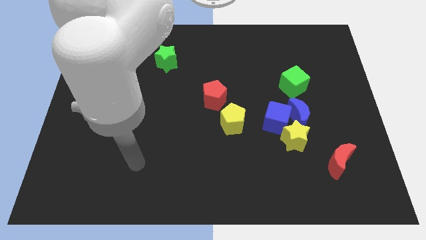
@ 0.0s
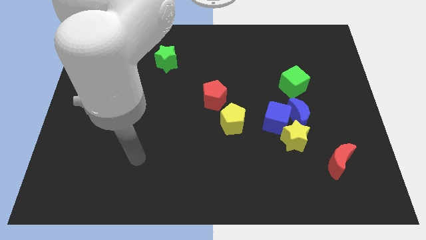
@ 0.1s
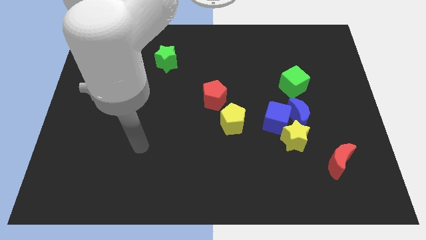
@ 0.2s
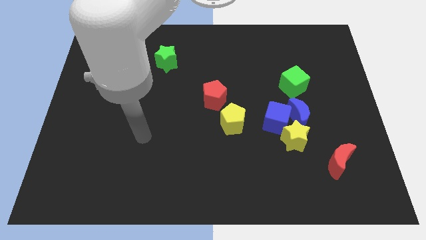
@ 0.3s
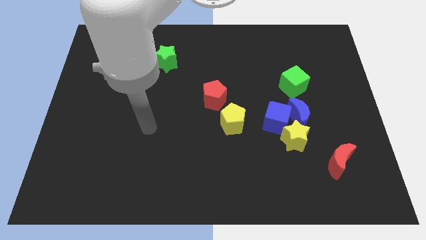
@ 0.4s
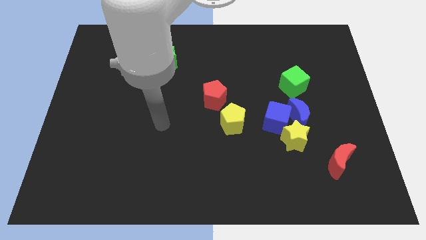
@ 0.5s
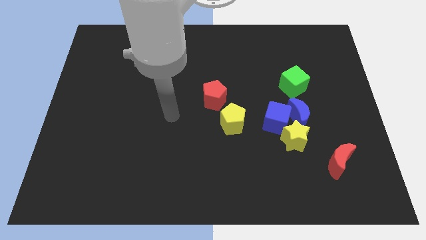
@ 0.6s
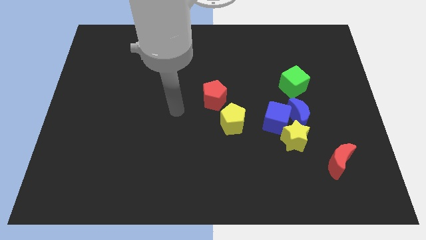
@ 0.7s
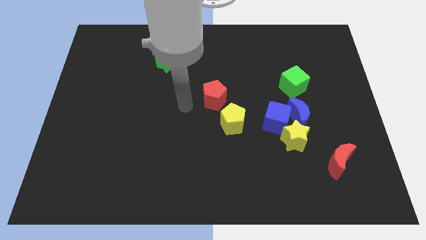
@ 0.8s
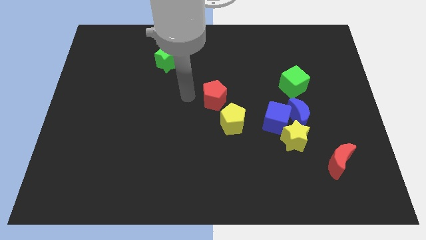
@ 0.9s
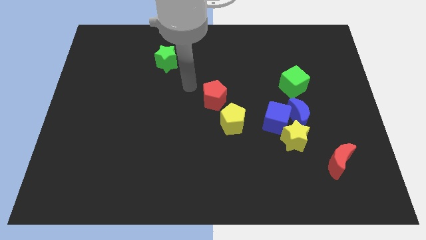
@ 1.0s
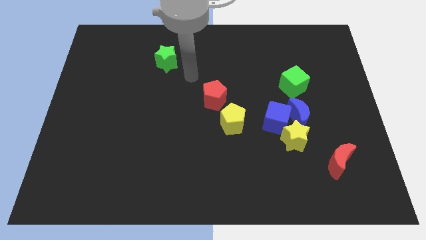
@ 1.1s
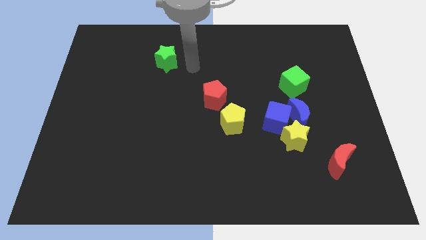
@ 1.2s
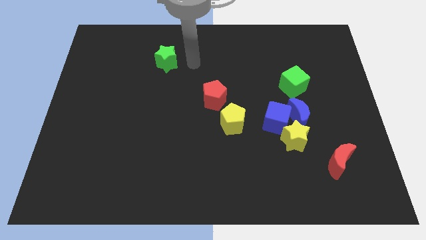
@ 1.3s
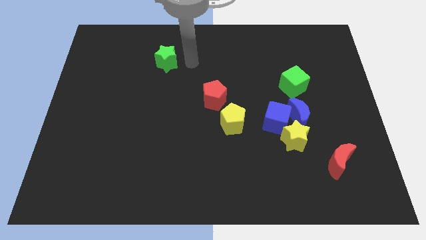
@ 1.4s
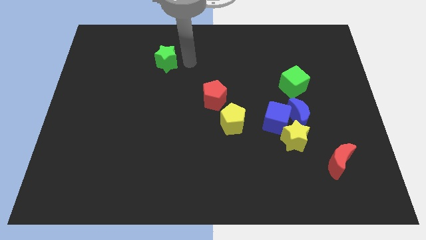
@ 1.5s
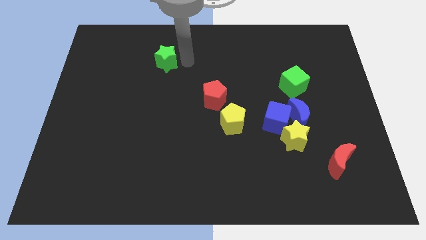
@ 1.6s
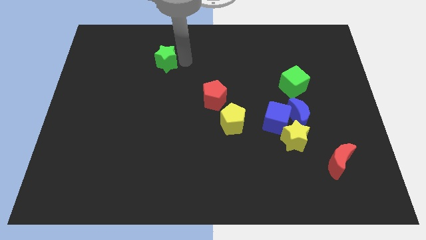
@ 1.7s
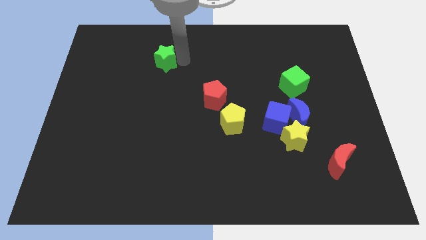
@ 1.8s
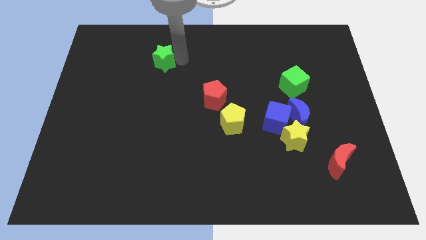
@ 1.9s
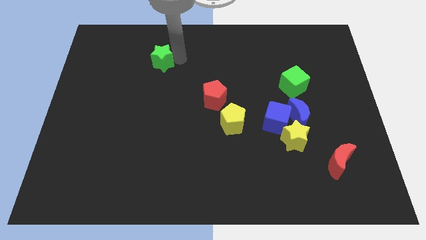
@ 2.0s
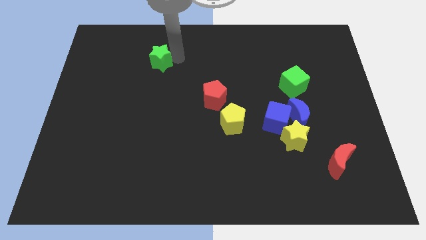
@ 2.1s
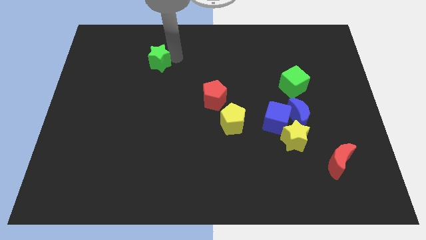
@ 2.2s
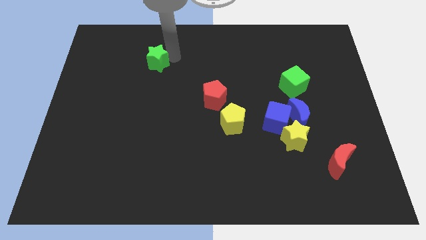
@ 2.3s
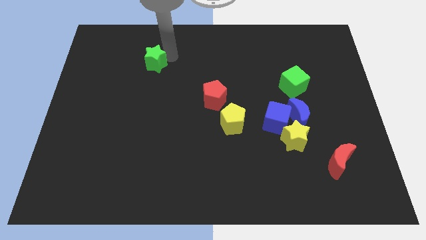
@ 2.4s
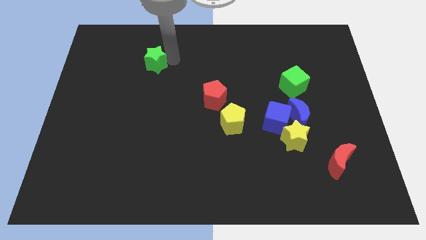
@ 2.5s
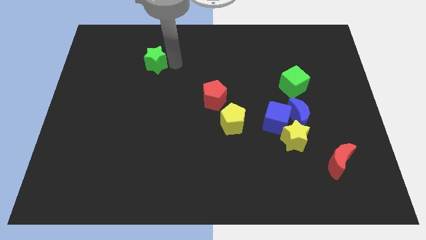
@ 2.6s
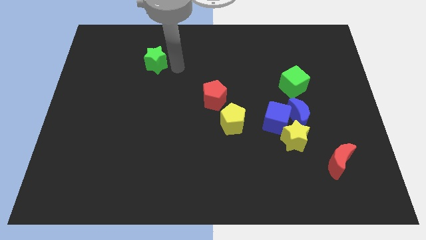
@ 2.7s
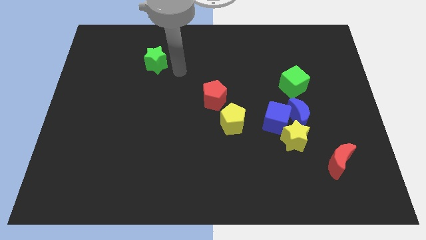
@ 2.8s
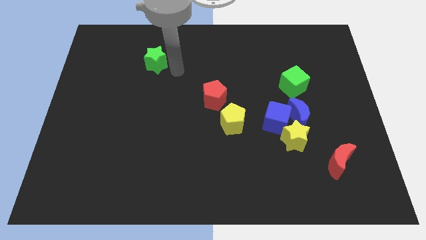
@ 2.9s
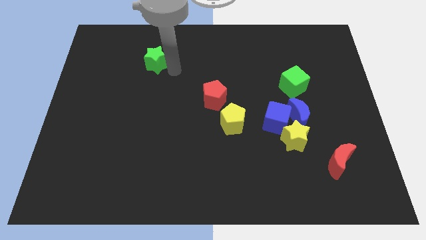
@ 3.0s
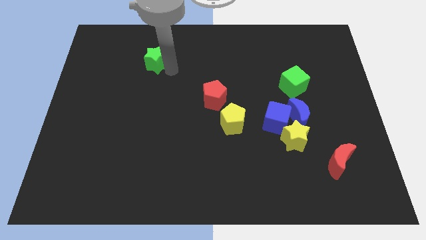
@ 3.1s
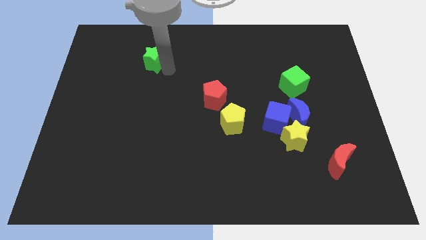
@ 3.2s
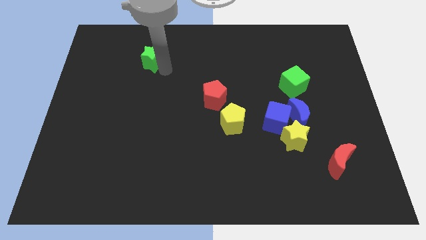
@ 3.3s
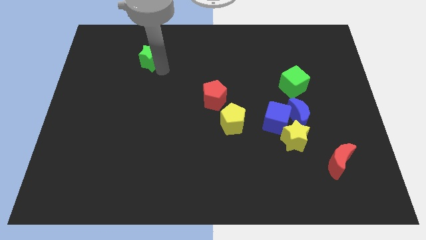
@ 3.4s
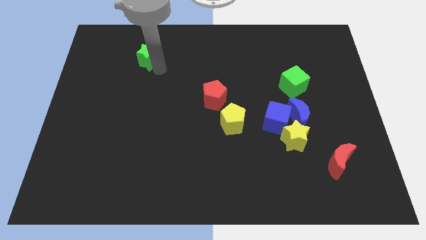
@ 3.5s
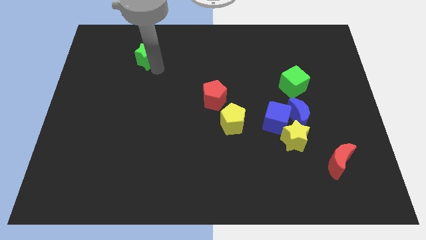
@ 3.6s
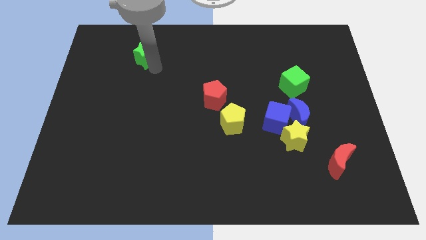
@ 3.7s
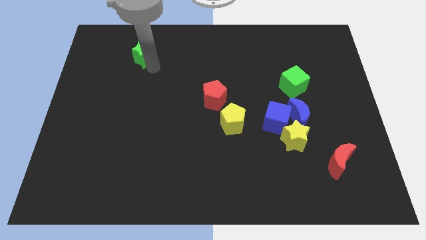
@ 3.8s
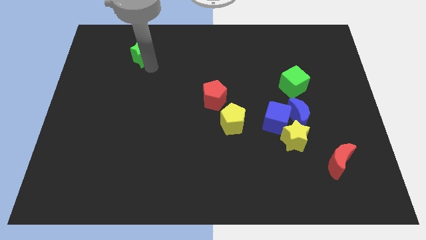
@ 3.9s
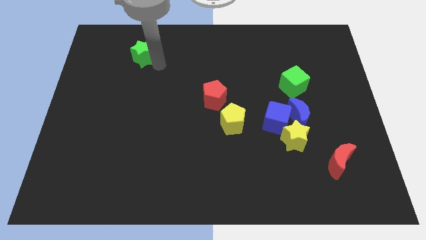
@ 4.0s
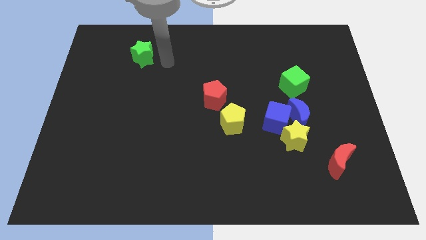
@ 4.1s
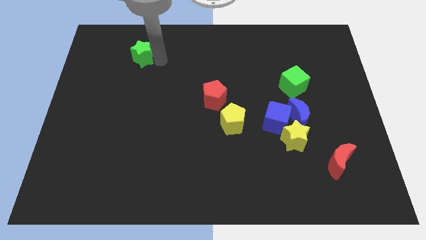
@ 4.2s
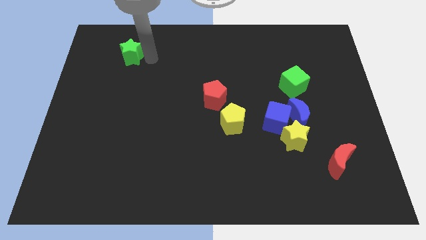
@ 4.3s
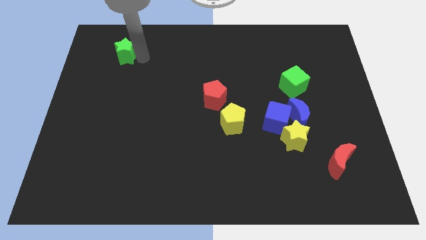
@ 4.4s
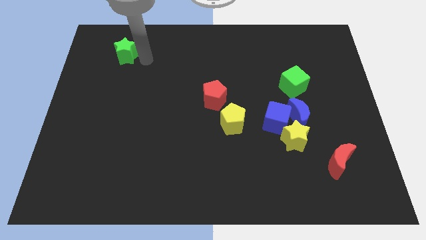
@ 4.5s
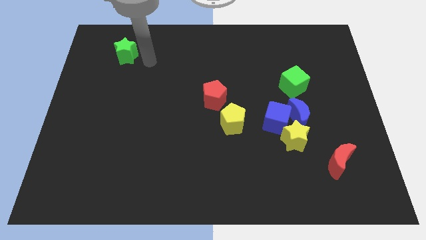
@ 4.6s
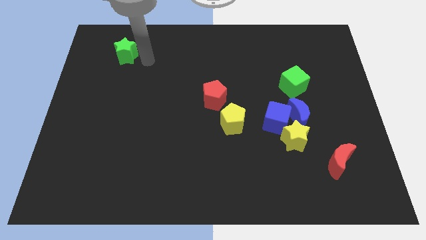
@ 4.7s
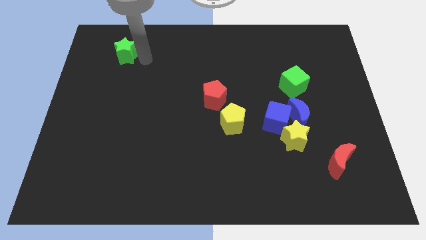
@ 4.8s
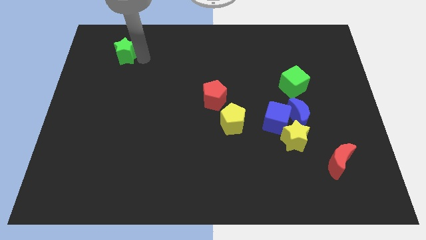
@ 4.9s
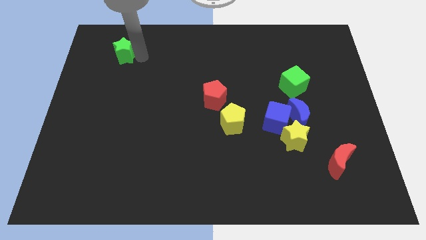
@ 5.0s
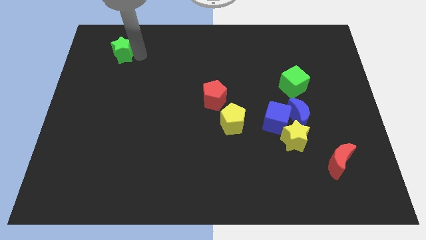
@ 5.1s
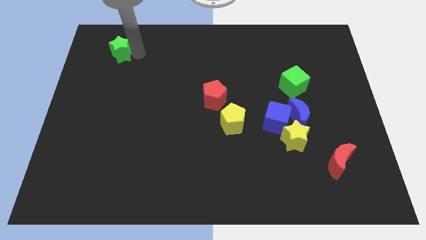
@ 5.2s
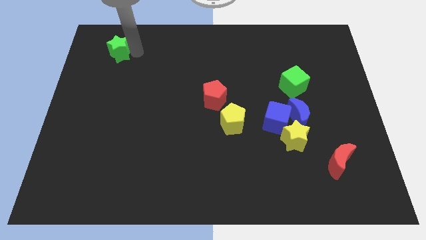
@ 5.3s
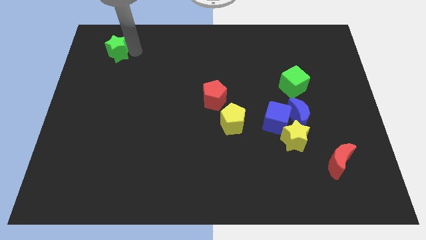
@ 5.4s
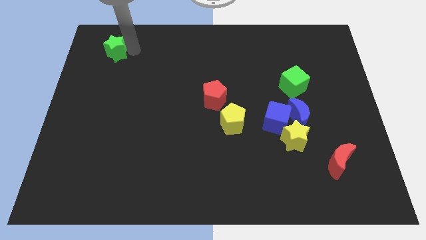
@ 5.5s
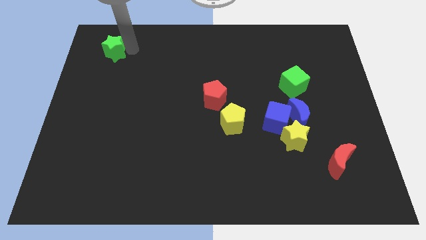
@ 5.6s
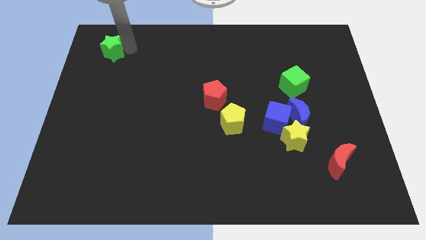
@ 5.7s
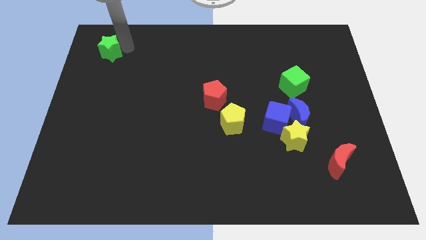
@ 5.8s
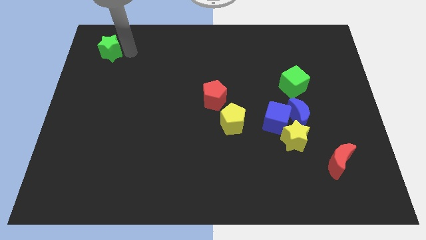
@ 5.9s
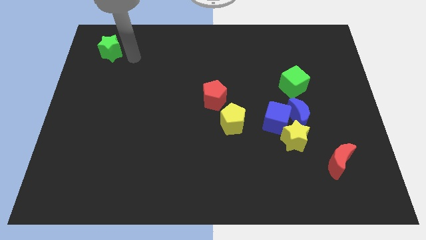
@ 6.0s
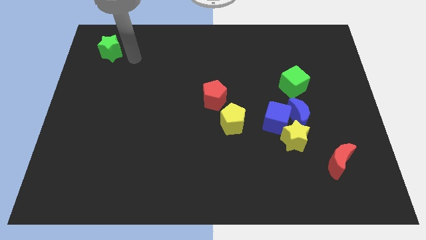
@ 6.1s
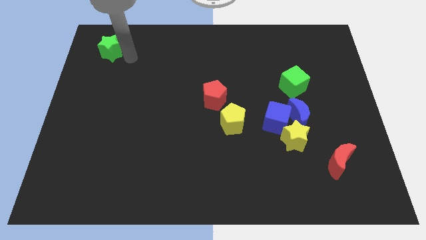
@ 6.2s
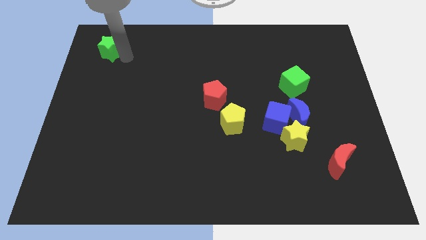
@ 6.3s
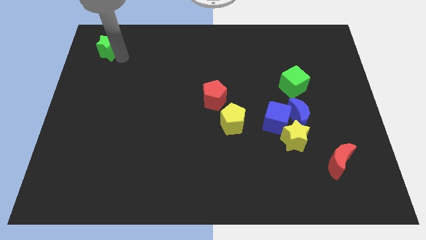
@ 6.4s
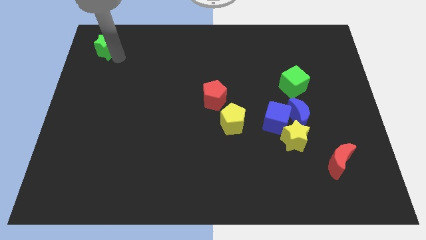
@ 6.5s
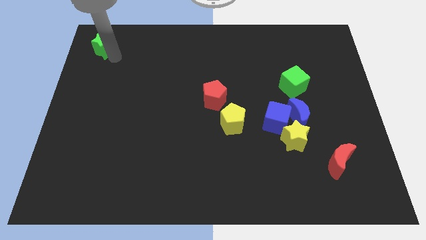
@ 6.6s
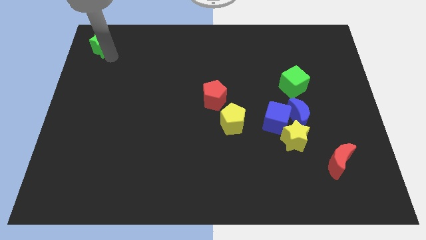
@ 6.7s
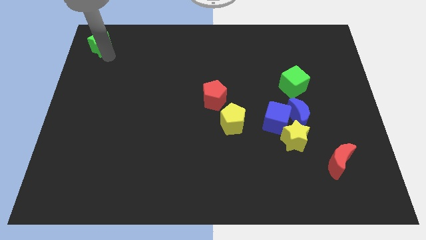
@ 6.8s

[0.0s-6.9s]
put the green star to the top left corner
